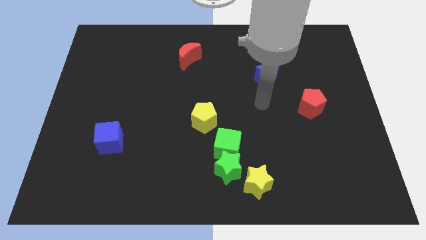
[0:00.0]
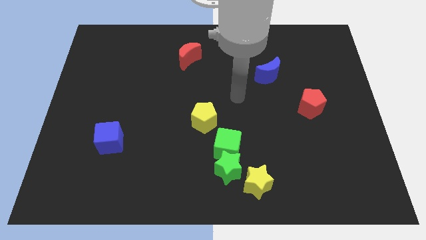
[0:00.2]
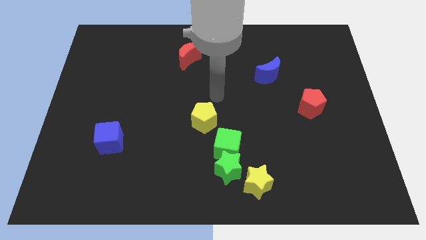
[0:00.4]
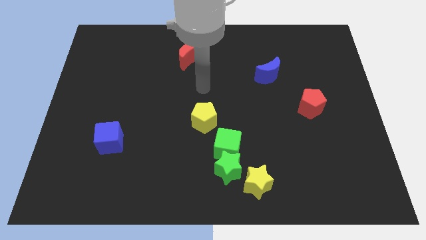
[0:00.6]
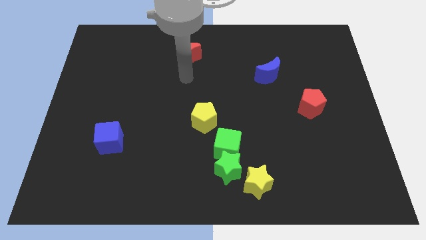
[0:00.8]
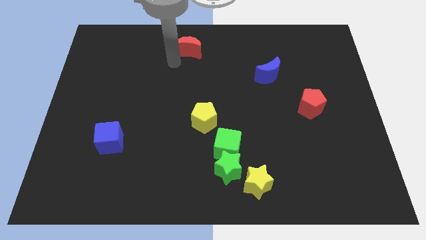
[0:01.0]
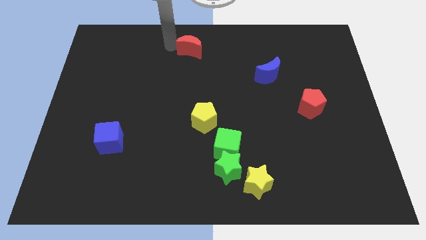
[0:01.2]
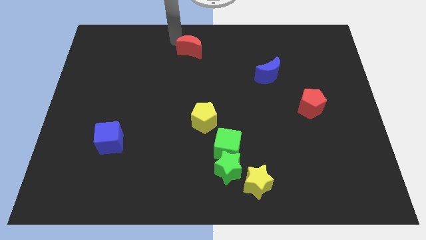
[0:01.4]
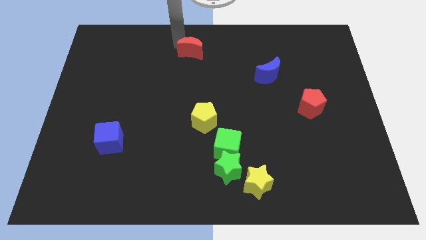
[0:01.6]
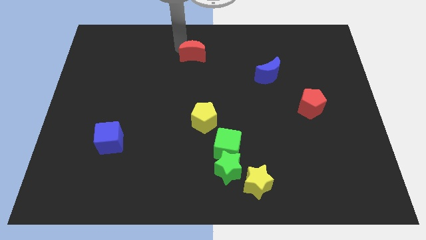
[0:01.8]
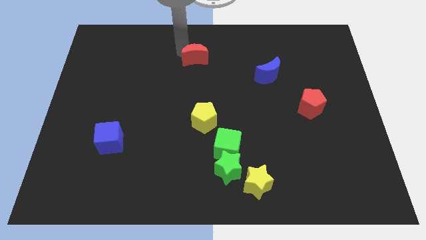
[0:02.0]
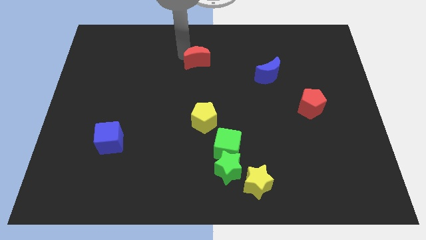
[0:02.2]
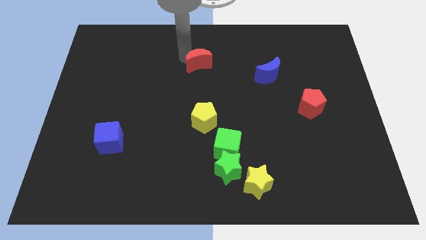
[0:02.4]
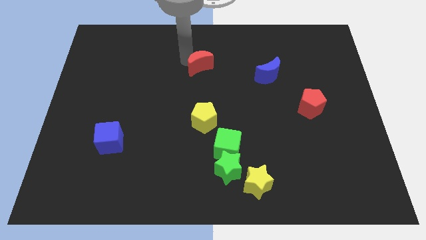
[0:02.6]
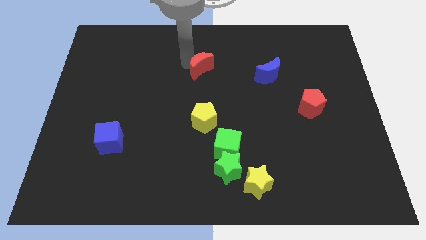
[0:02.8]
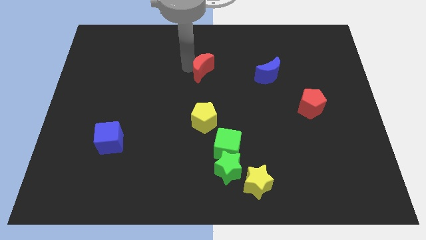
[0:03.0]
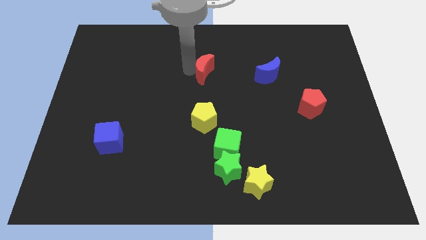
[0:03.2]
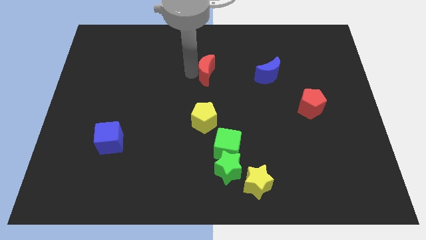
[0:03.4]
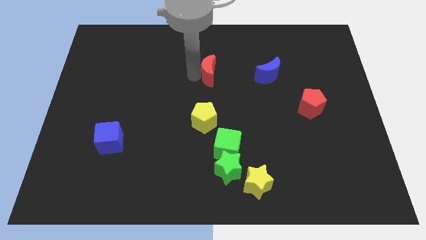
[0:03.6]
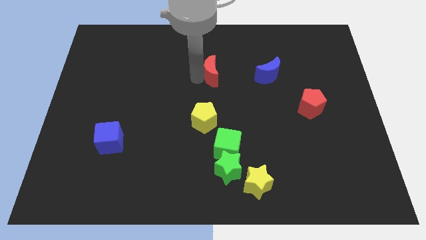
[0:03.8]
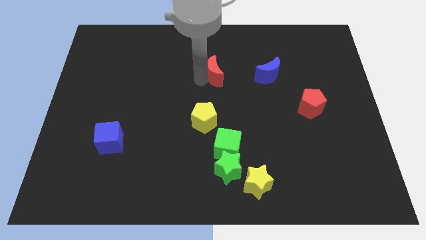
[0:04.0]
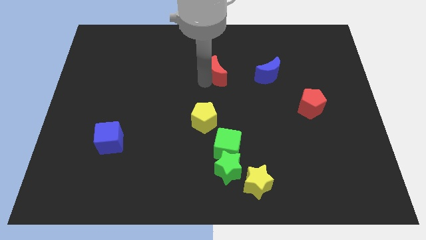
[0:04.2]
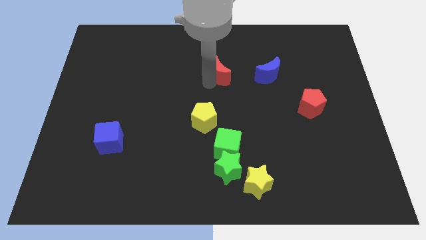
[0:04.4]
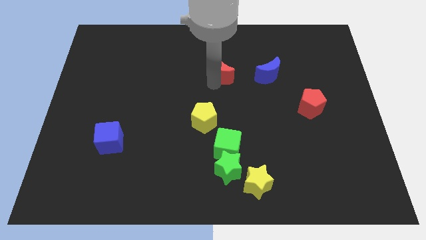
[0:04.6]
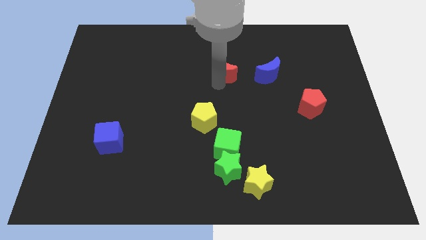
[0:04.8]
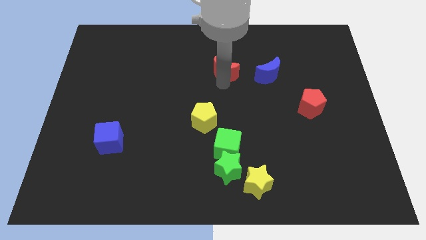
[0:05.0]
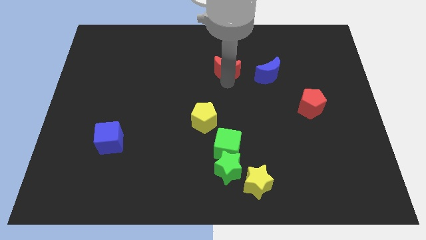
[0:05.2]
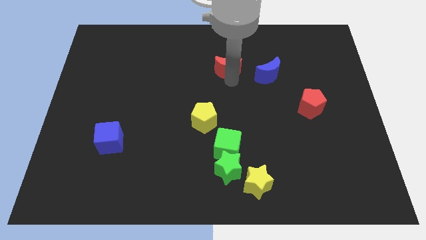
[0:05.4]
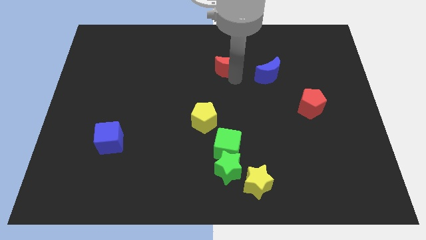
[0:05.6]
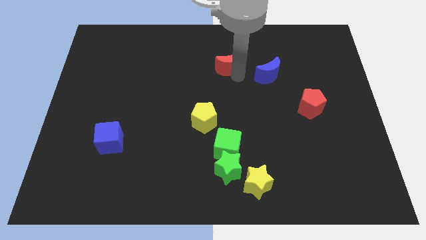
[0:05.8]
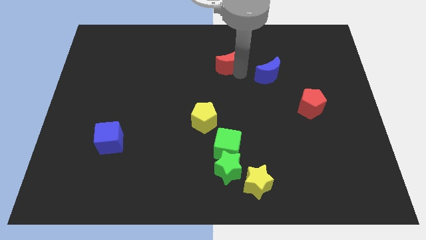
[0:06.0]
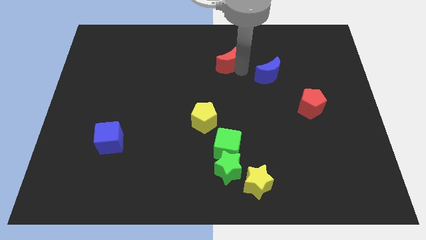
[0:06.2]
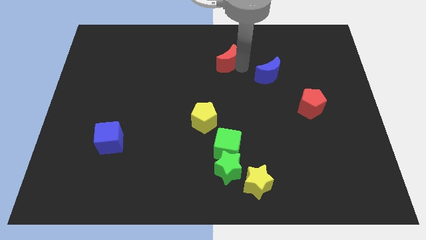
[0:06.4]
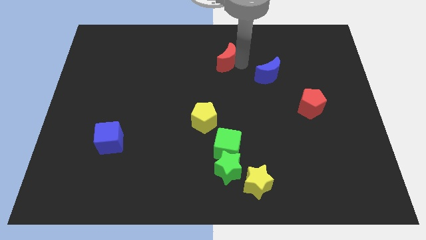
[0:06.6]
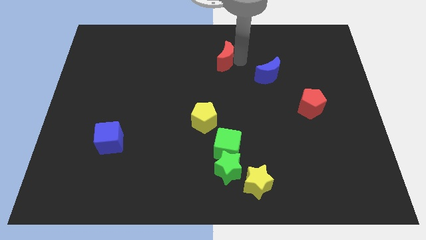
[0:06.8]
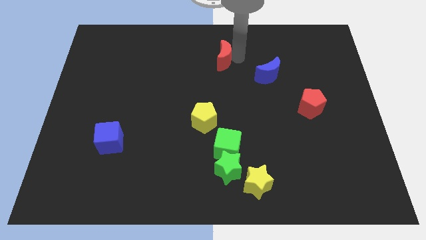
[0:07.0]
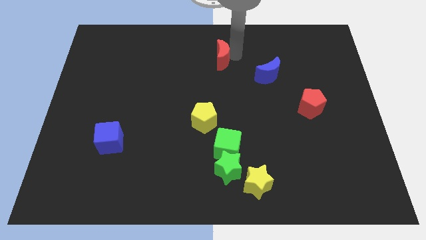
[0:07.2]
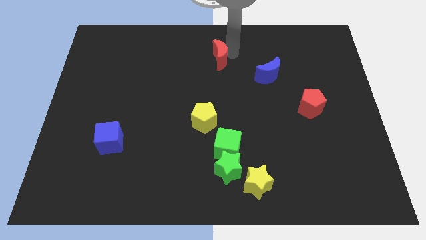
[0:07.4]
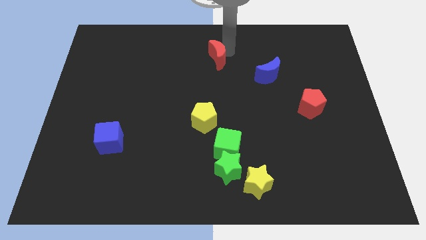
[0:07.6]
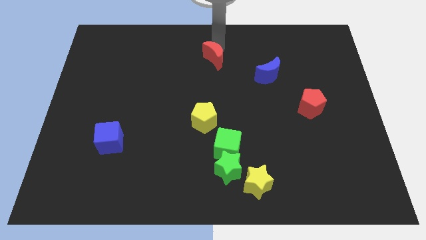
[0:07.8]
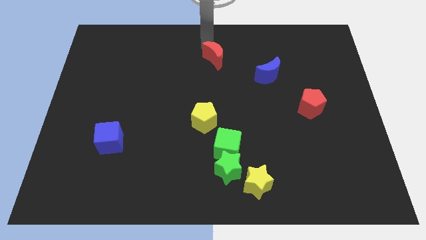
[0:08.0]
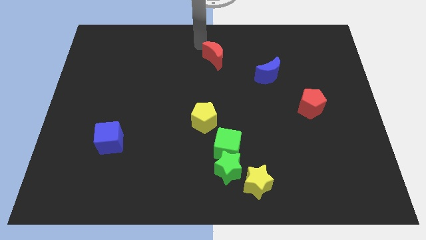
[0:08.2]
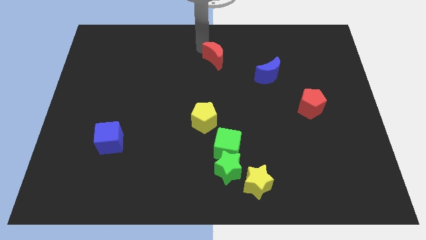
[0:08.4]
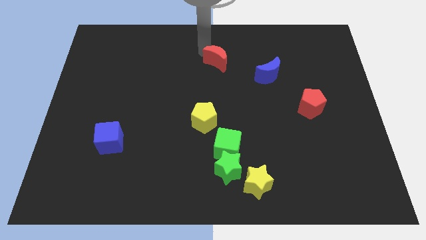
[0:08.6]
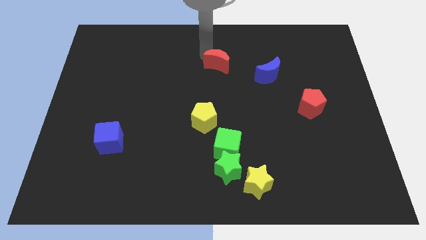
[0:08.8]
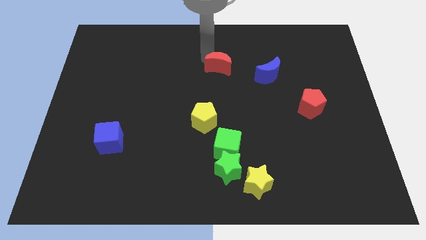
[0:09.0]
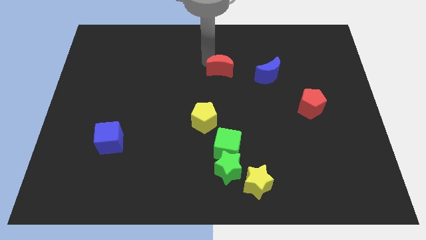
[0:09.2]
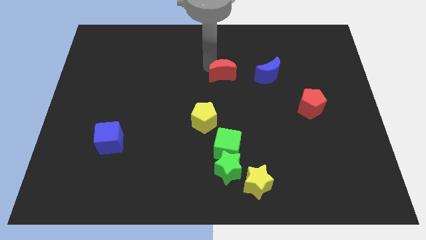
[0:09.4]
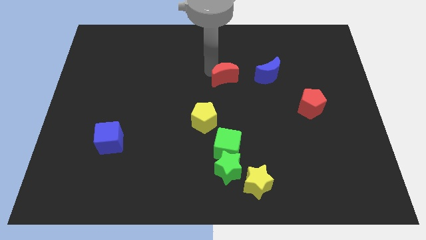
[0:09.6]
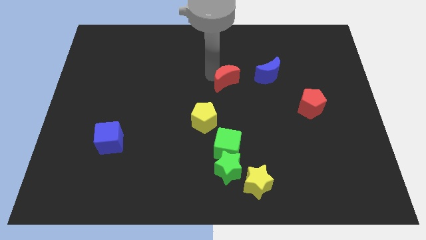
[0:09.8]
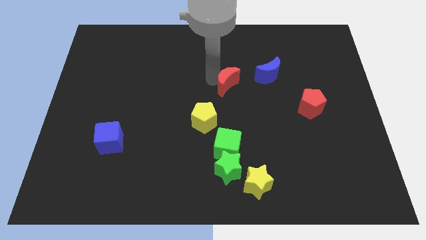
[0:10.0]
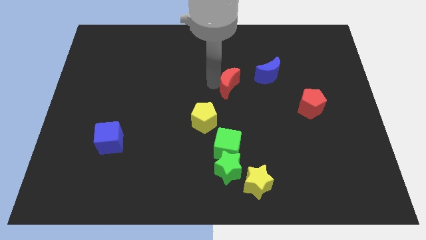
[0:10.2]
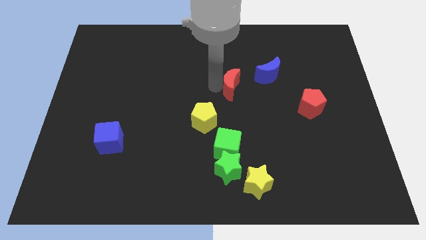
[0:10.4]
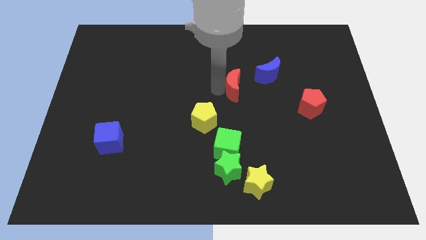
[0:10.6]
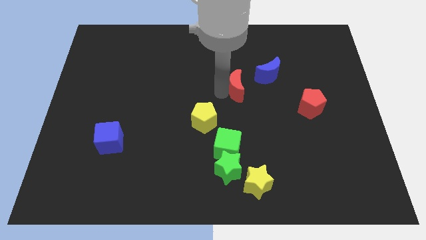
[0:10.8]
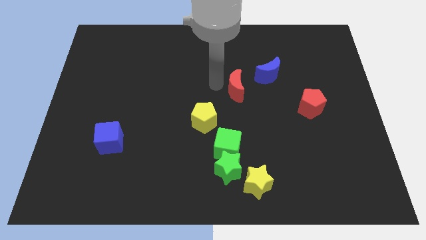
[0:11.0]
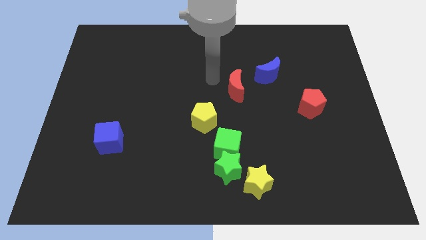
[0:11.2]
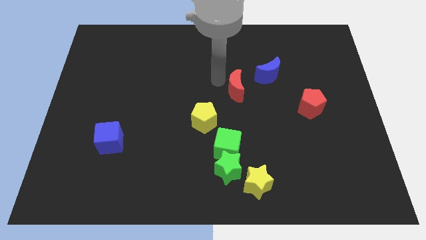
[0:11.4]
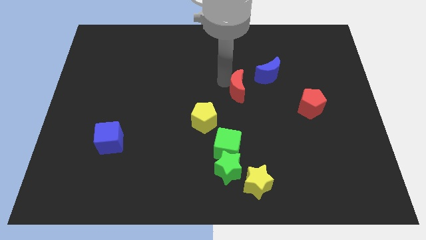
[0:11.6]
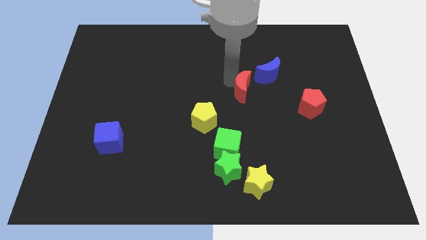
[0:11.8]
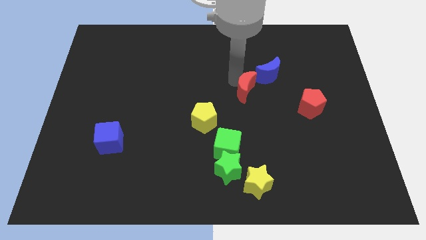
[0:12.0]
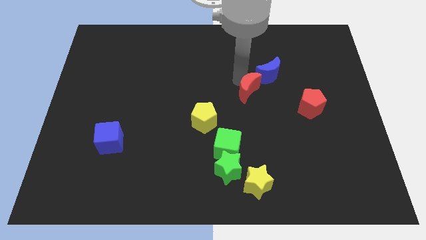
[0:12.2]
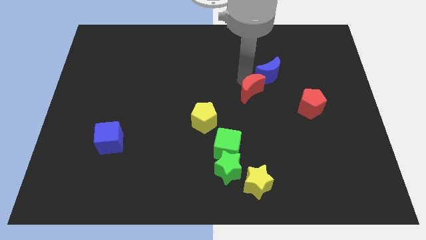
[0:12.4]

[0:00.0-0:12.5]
push the red moon to the bottom side of the blue moon

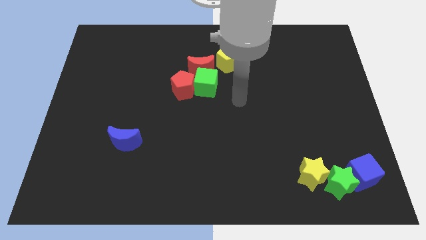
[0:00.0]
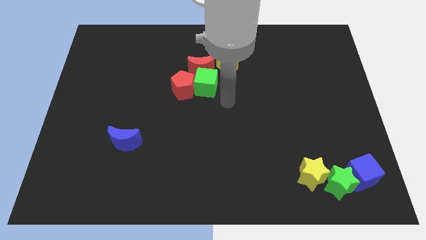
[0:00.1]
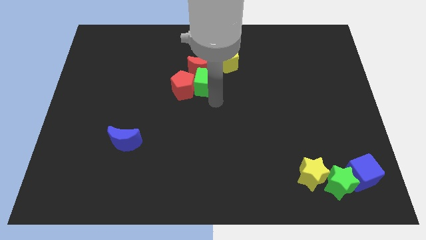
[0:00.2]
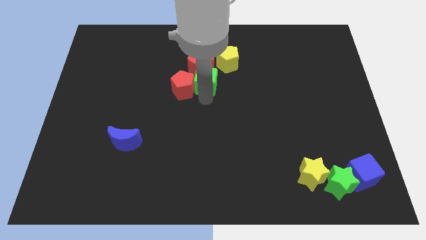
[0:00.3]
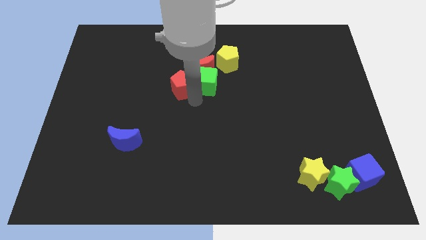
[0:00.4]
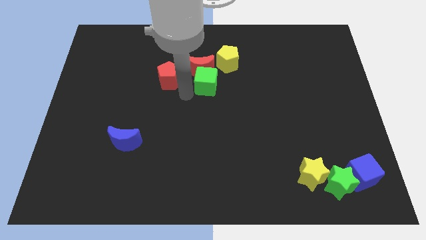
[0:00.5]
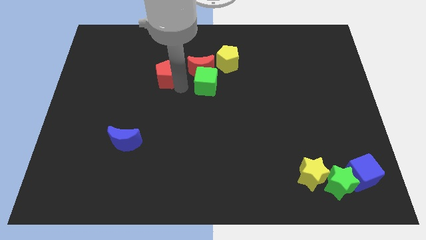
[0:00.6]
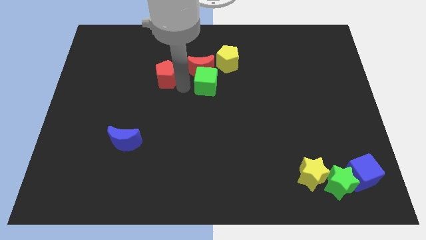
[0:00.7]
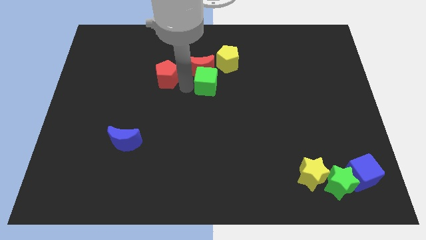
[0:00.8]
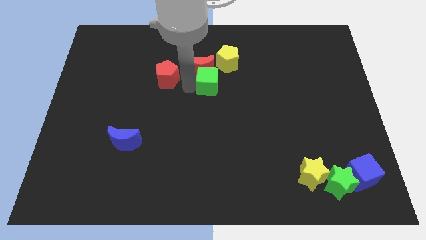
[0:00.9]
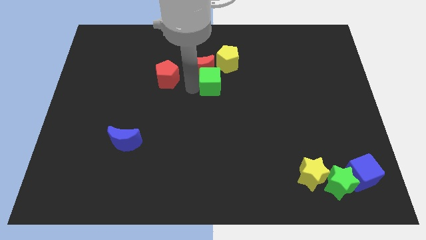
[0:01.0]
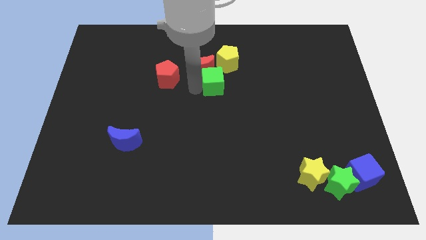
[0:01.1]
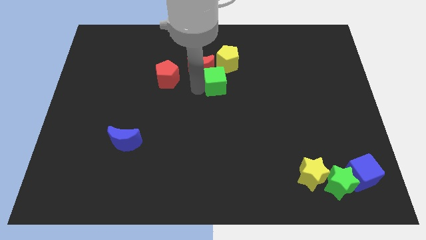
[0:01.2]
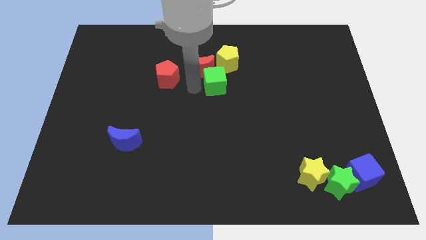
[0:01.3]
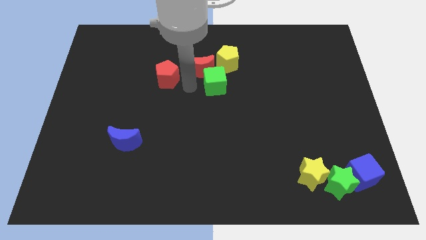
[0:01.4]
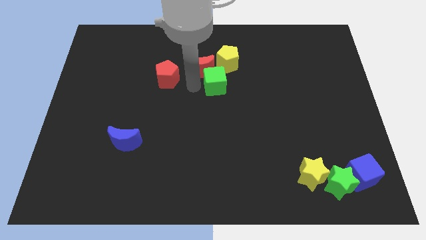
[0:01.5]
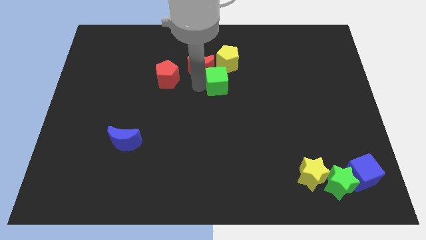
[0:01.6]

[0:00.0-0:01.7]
move the green cube to the right of the red moon

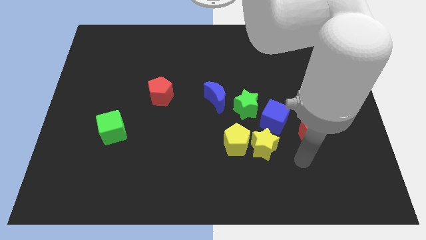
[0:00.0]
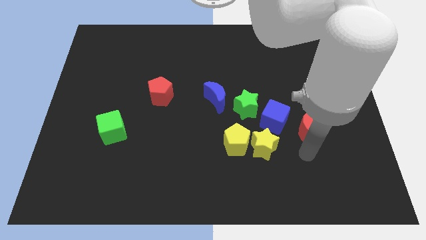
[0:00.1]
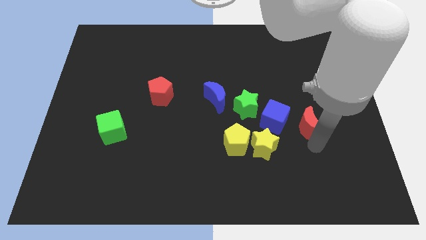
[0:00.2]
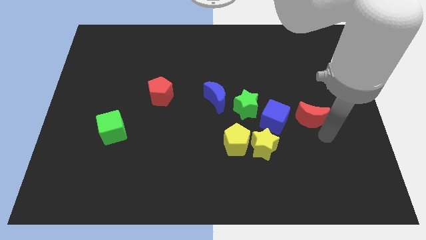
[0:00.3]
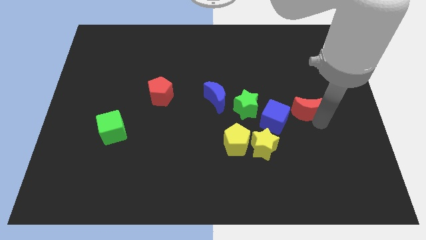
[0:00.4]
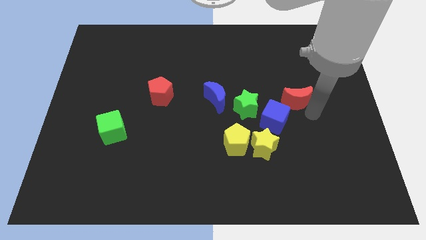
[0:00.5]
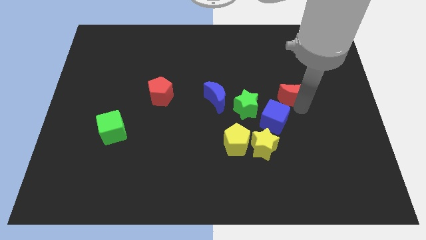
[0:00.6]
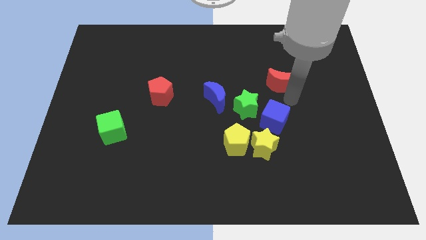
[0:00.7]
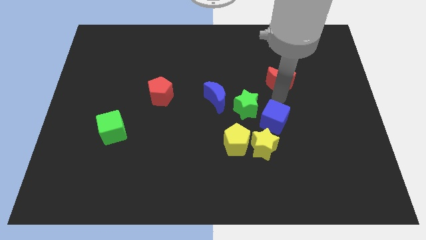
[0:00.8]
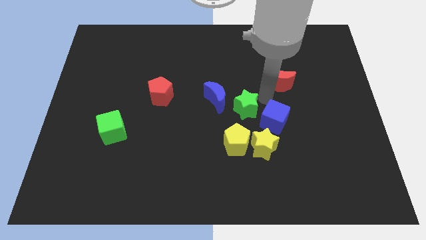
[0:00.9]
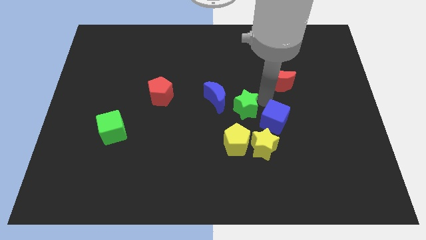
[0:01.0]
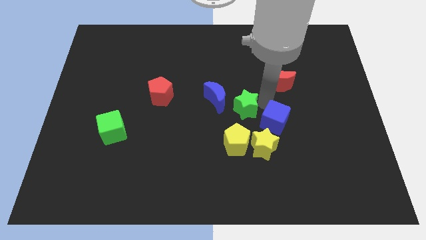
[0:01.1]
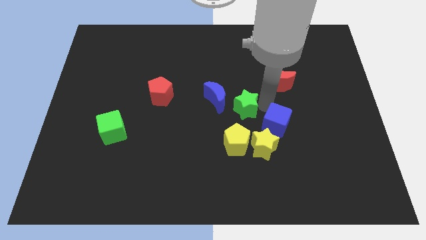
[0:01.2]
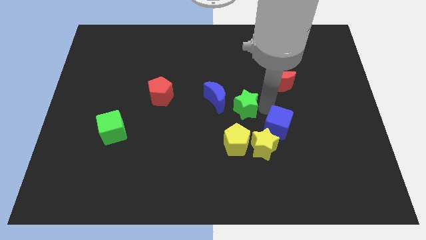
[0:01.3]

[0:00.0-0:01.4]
slide the blue cube just right of the yellow pentagon
